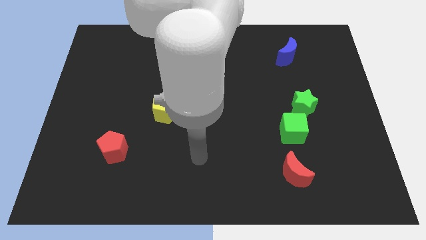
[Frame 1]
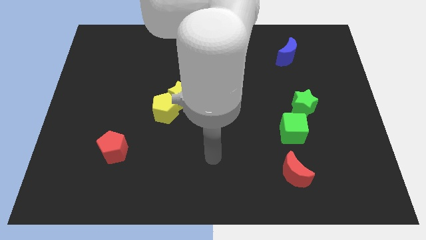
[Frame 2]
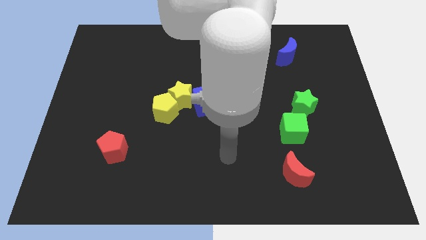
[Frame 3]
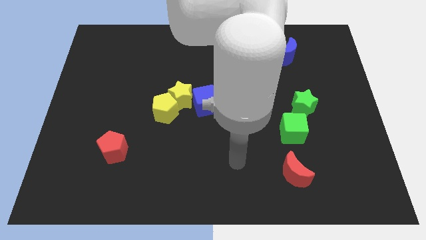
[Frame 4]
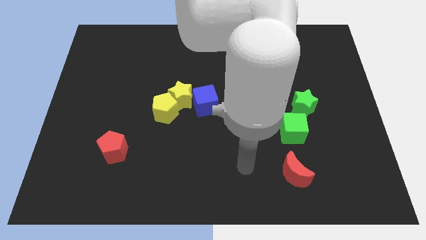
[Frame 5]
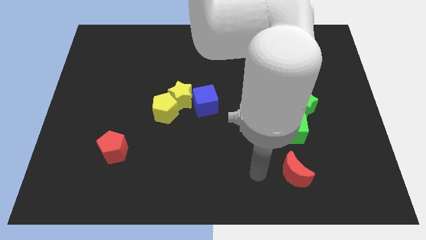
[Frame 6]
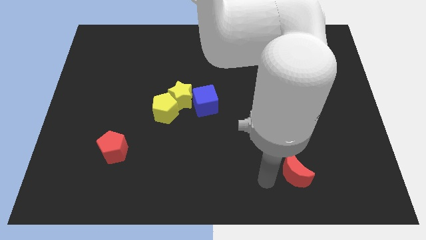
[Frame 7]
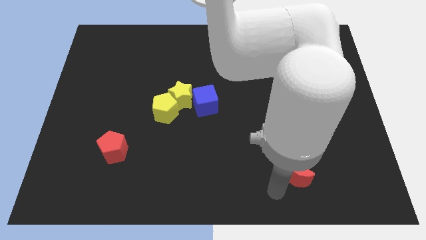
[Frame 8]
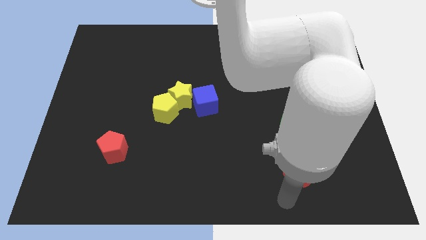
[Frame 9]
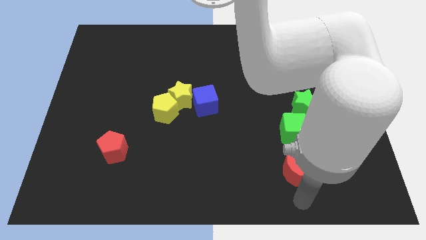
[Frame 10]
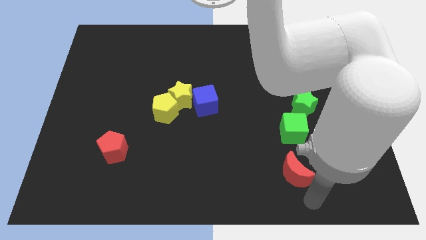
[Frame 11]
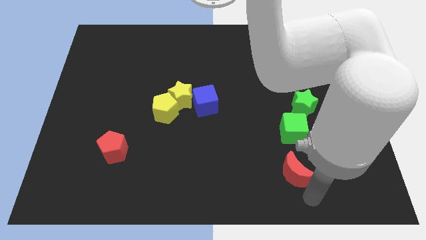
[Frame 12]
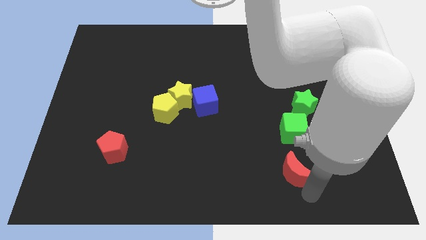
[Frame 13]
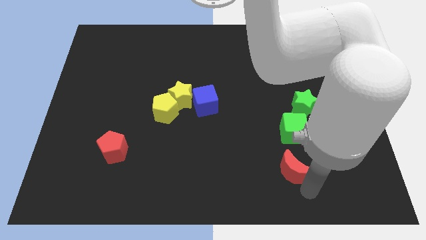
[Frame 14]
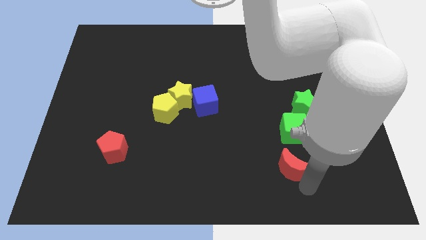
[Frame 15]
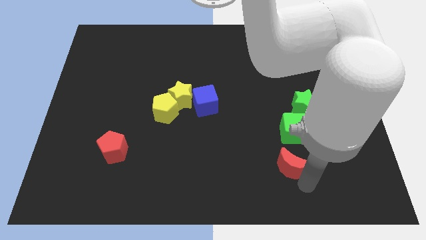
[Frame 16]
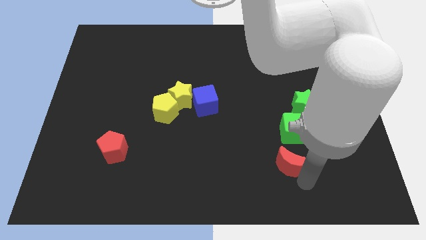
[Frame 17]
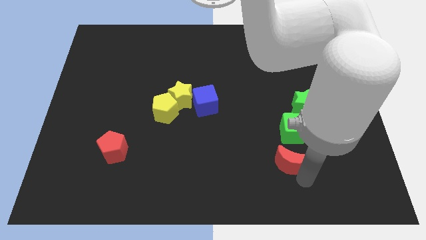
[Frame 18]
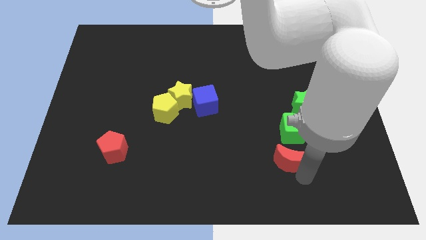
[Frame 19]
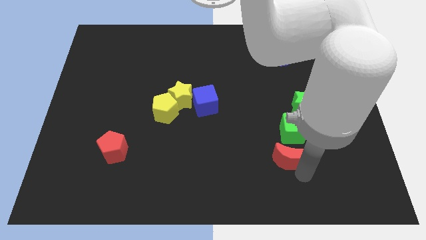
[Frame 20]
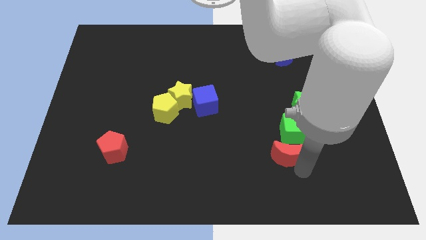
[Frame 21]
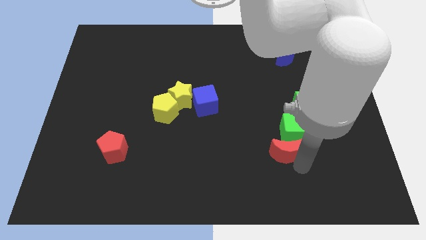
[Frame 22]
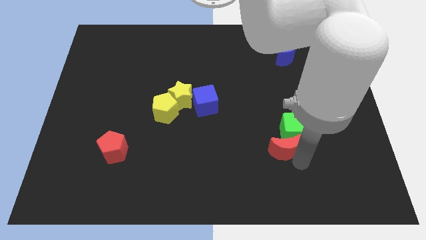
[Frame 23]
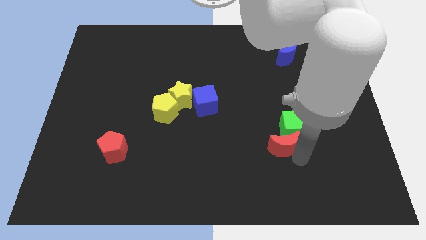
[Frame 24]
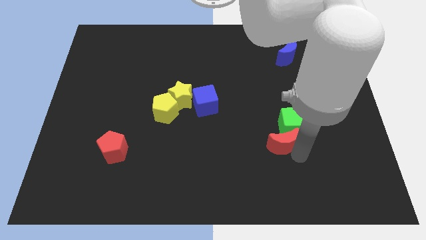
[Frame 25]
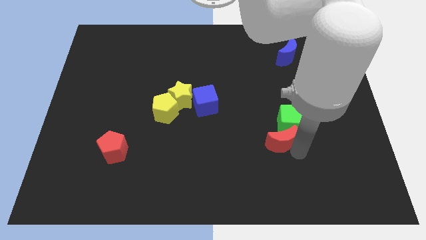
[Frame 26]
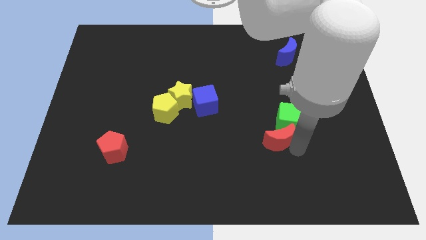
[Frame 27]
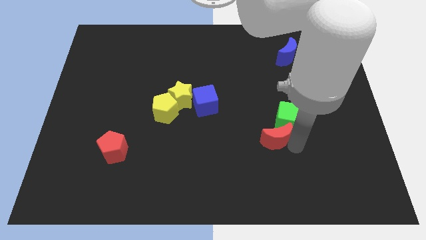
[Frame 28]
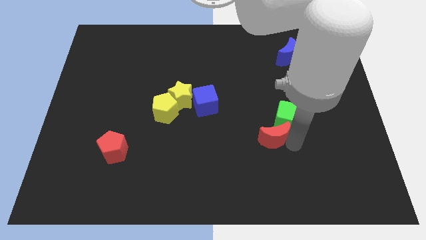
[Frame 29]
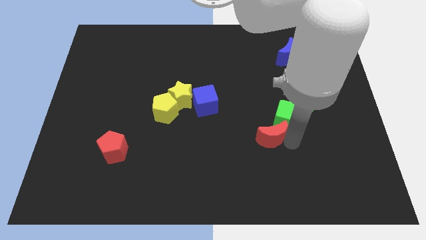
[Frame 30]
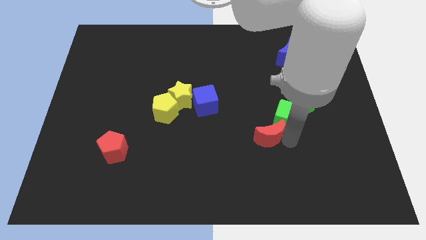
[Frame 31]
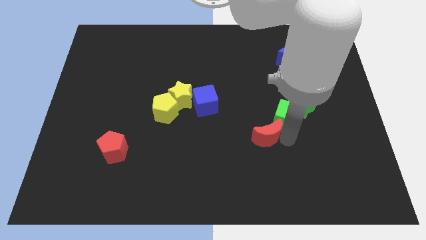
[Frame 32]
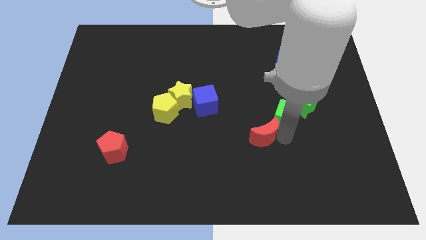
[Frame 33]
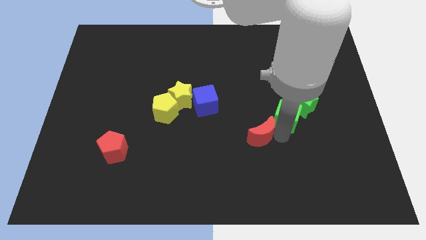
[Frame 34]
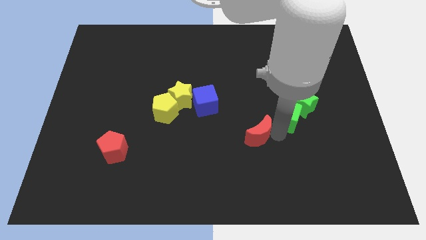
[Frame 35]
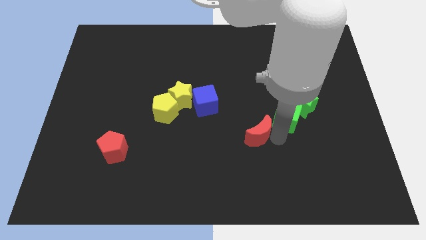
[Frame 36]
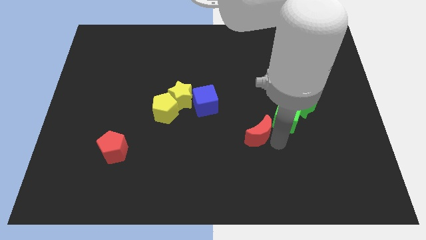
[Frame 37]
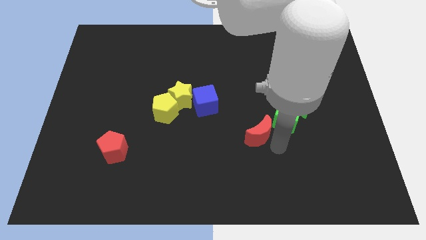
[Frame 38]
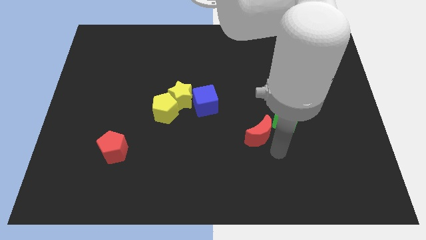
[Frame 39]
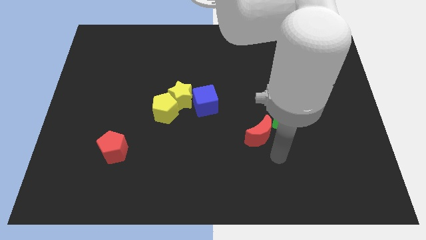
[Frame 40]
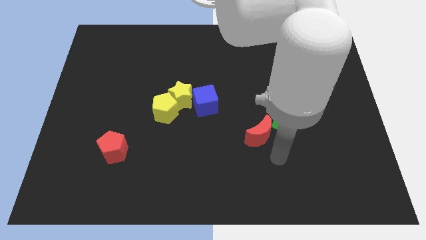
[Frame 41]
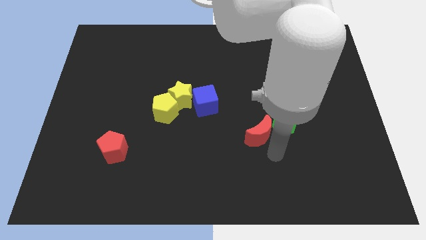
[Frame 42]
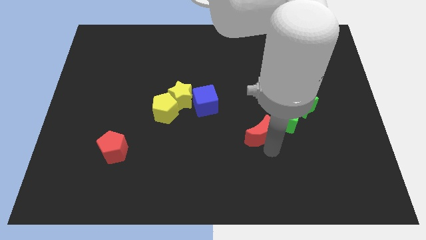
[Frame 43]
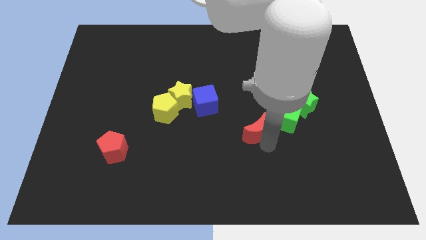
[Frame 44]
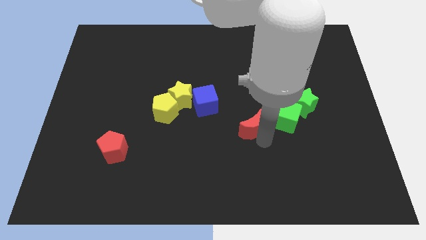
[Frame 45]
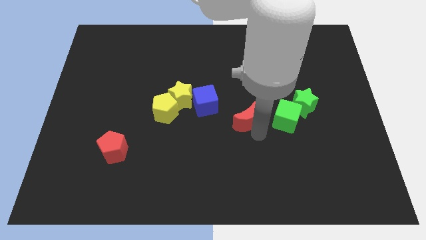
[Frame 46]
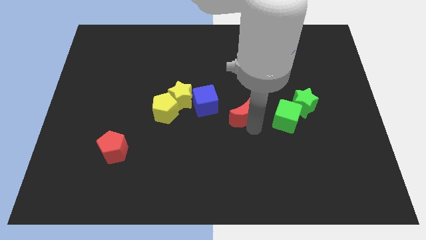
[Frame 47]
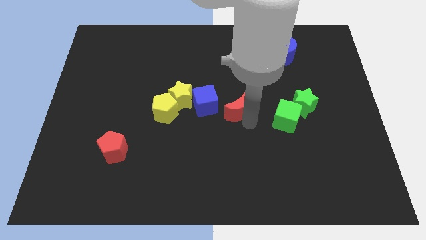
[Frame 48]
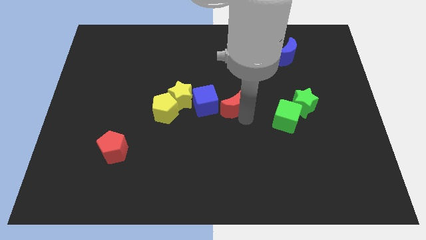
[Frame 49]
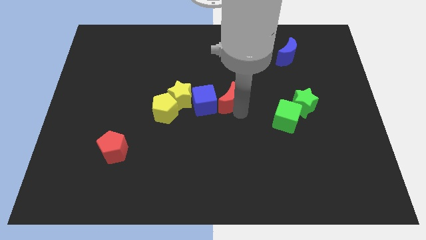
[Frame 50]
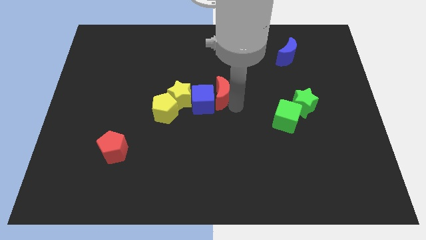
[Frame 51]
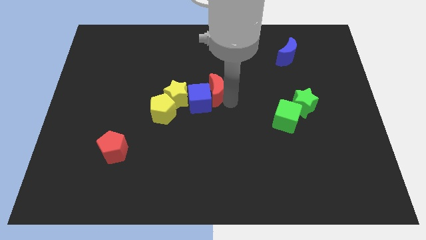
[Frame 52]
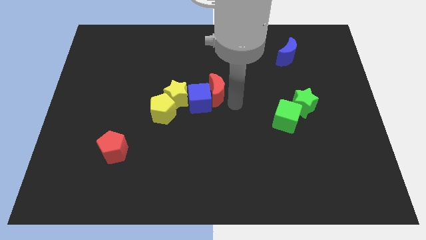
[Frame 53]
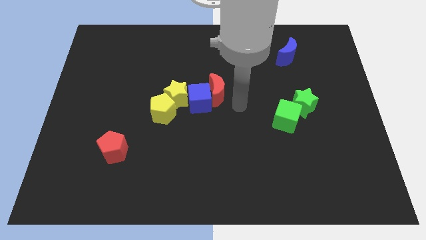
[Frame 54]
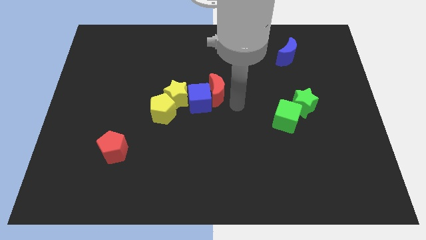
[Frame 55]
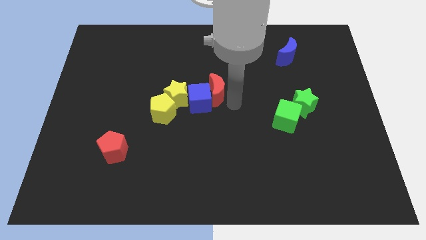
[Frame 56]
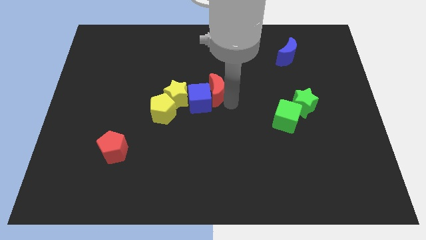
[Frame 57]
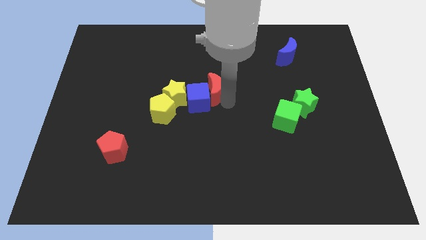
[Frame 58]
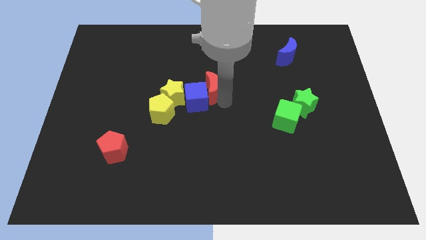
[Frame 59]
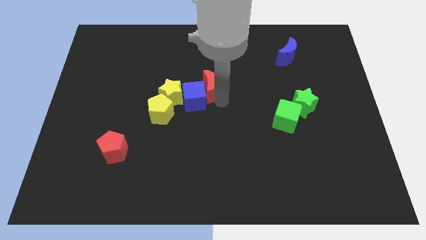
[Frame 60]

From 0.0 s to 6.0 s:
move the red moon to the top right of the yellow star

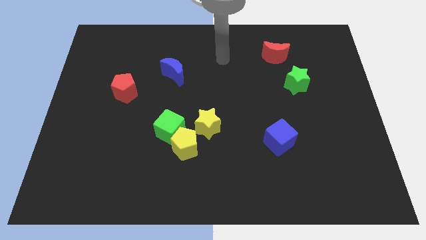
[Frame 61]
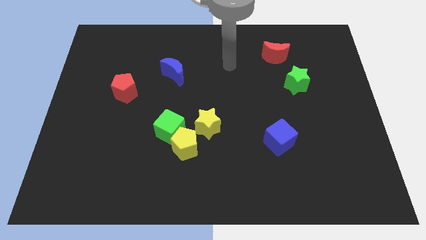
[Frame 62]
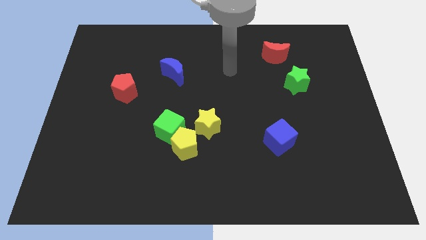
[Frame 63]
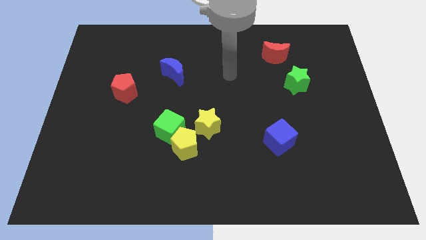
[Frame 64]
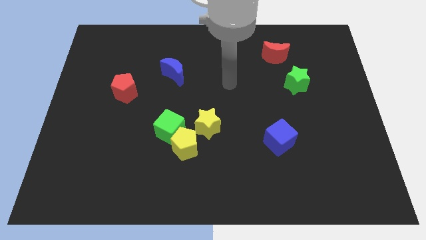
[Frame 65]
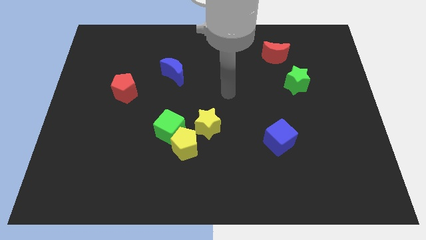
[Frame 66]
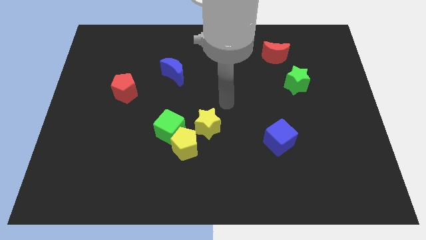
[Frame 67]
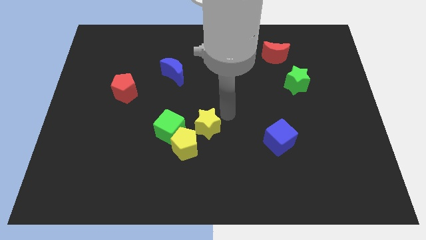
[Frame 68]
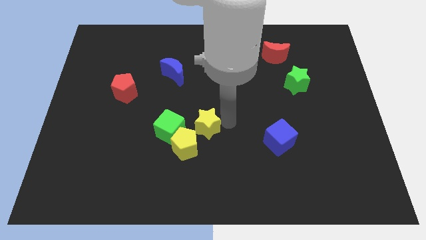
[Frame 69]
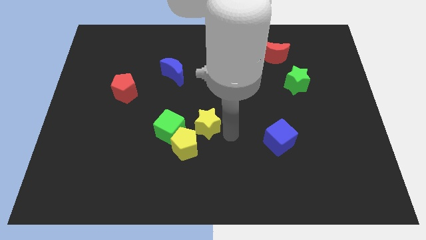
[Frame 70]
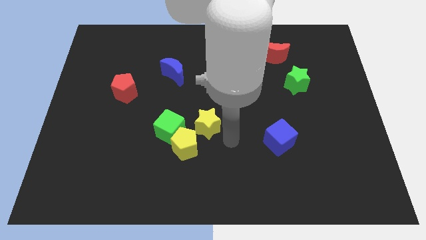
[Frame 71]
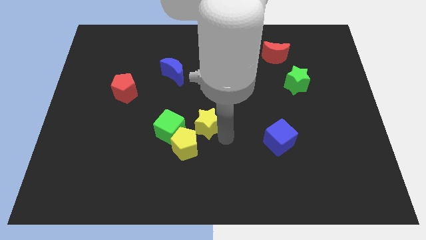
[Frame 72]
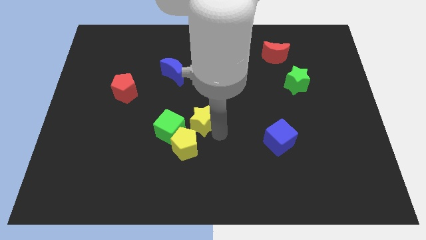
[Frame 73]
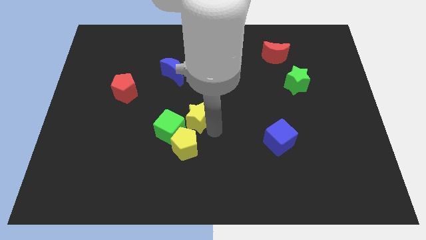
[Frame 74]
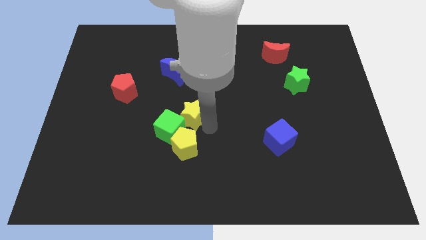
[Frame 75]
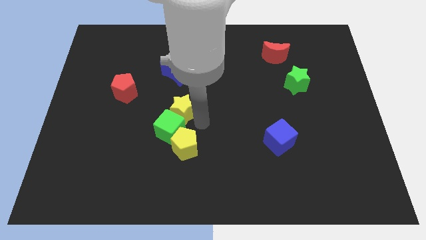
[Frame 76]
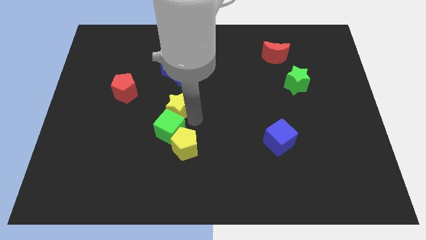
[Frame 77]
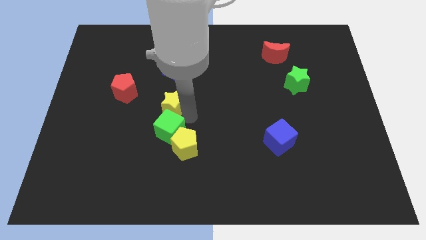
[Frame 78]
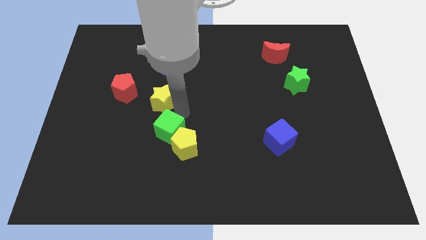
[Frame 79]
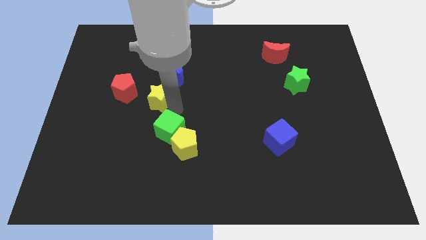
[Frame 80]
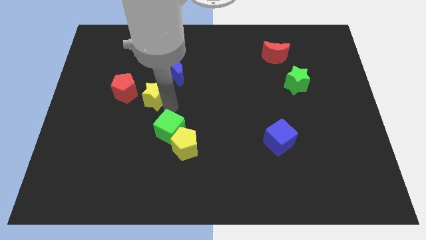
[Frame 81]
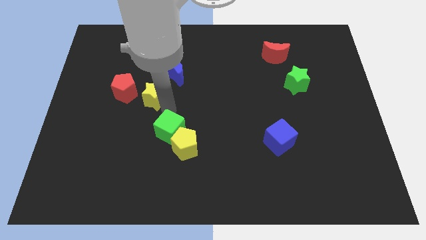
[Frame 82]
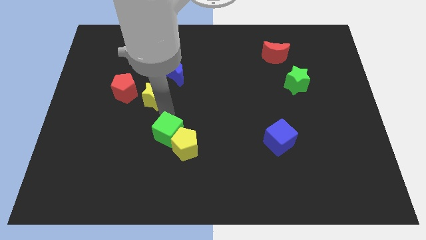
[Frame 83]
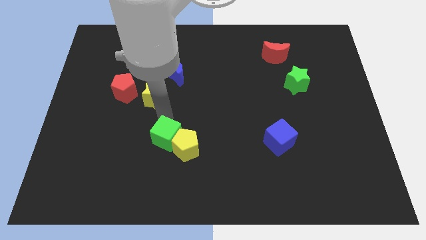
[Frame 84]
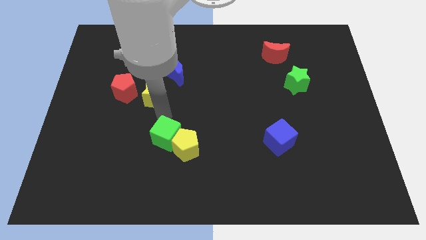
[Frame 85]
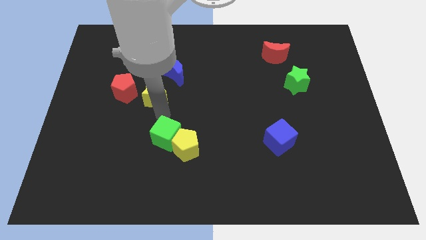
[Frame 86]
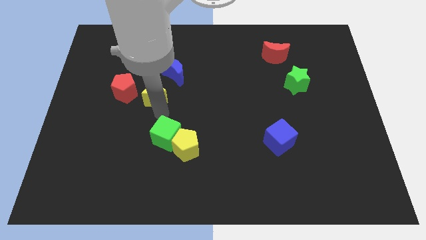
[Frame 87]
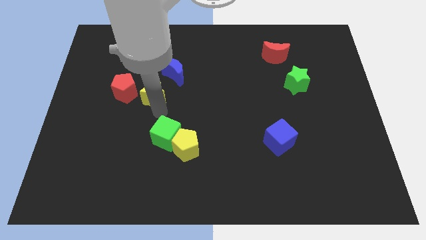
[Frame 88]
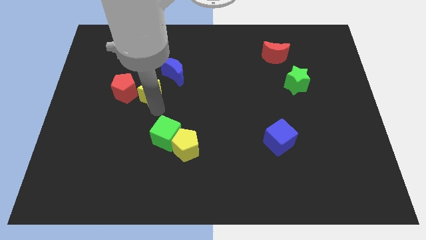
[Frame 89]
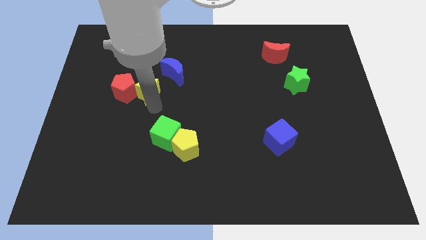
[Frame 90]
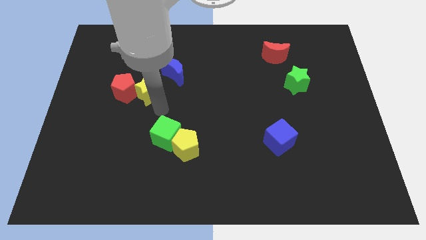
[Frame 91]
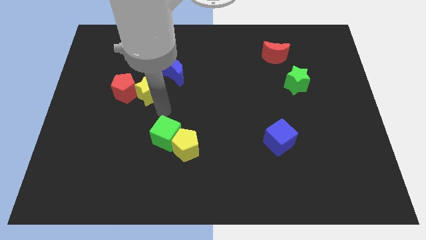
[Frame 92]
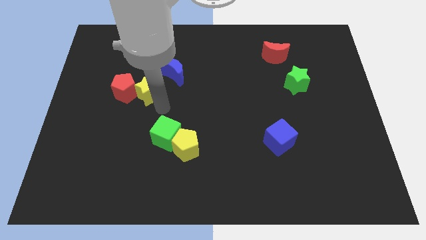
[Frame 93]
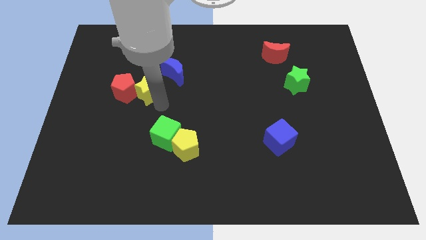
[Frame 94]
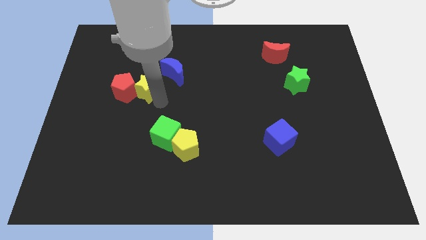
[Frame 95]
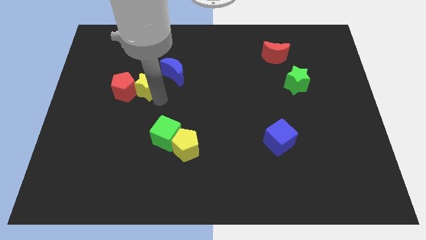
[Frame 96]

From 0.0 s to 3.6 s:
push the yellow star to the left side of the blue moon
